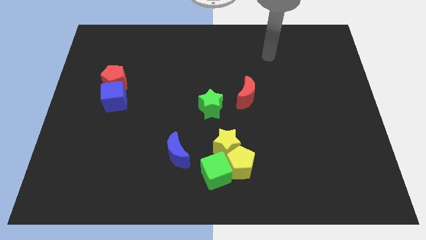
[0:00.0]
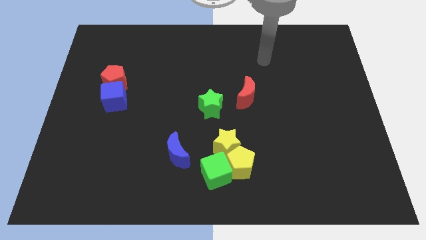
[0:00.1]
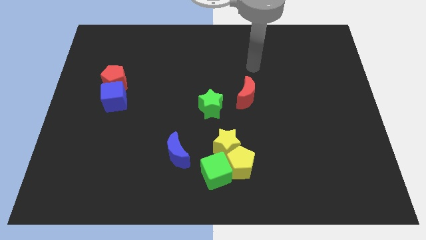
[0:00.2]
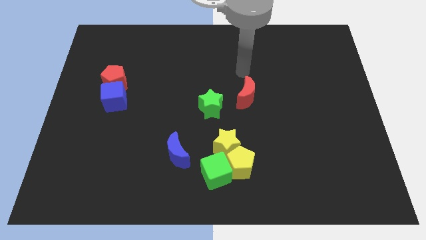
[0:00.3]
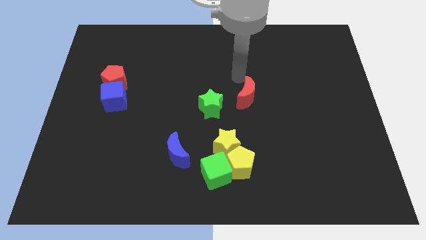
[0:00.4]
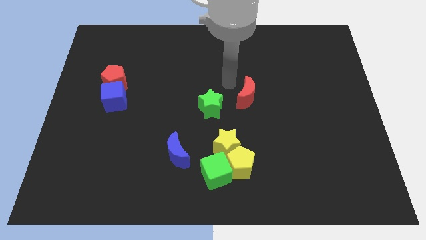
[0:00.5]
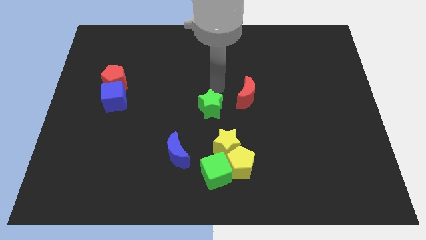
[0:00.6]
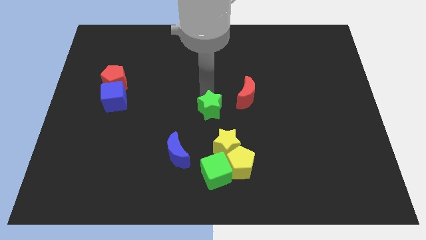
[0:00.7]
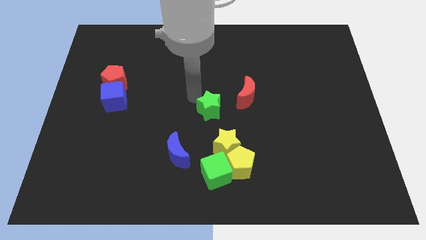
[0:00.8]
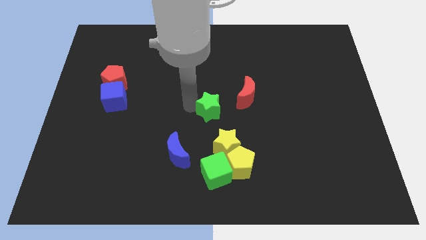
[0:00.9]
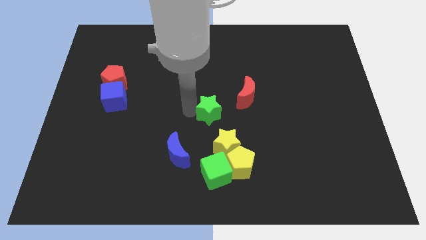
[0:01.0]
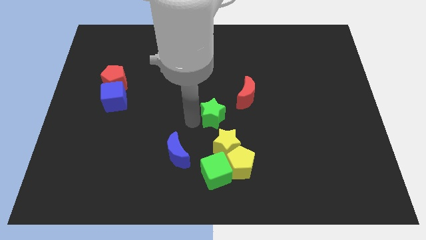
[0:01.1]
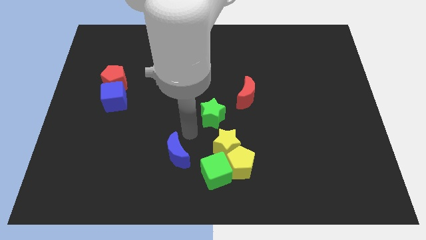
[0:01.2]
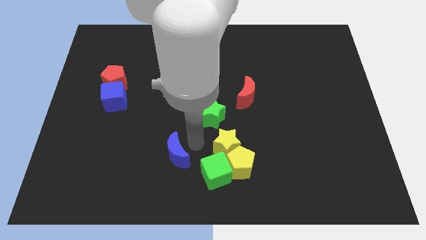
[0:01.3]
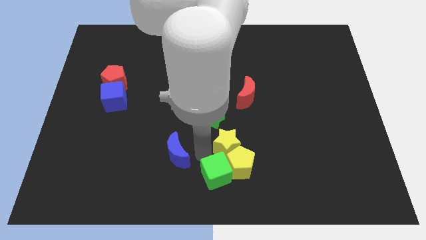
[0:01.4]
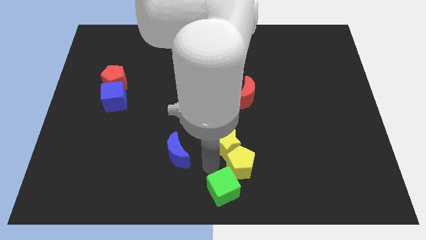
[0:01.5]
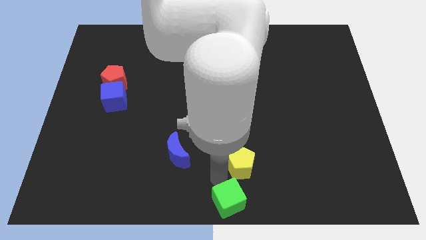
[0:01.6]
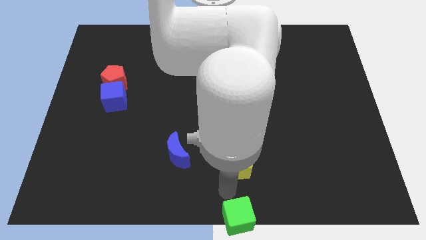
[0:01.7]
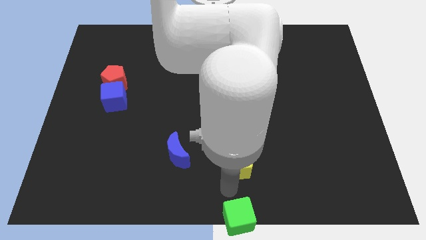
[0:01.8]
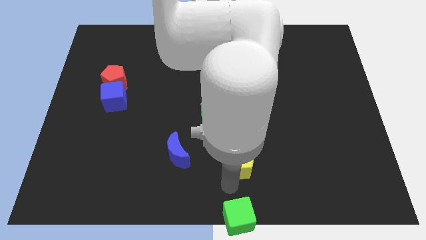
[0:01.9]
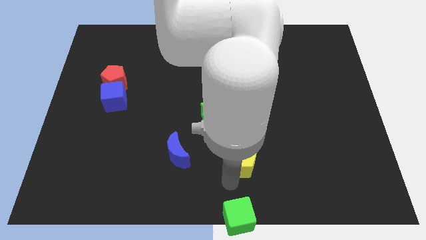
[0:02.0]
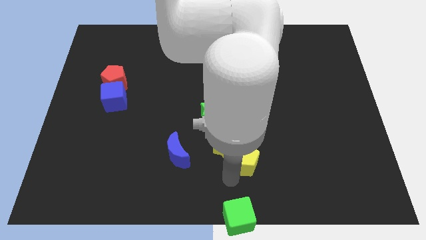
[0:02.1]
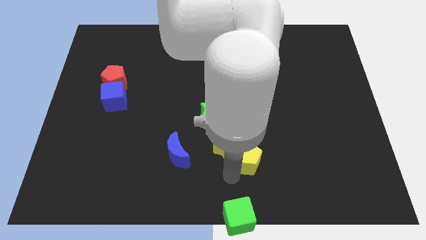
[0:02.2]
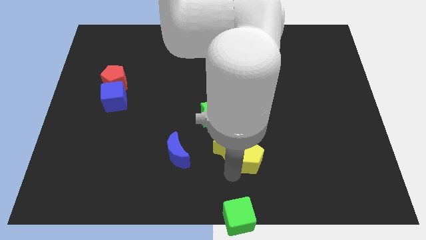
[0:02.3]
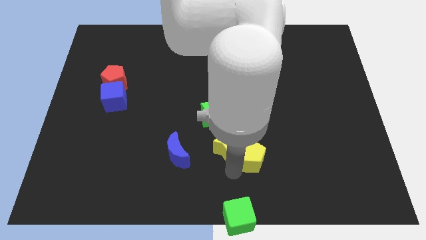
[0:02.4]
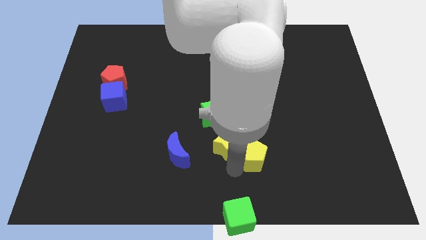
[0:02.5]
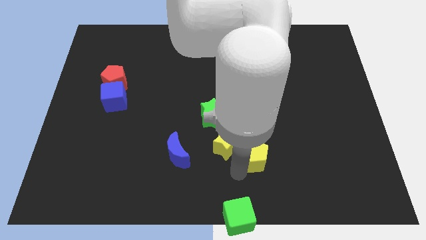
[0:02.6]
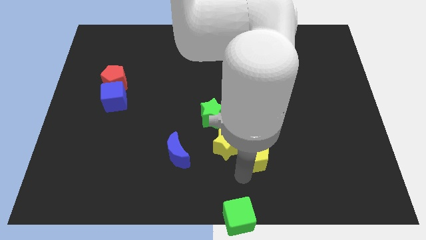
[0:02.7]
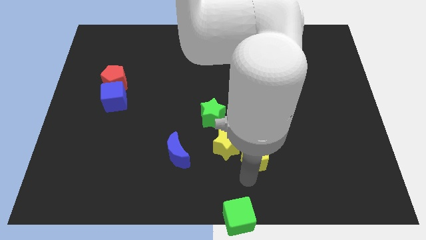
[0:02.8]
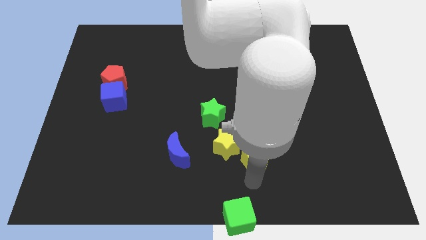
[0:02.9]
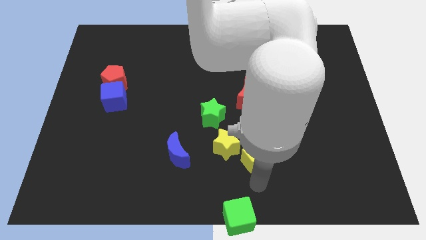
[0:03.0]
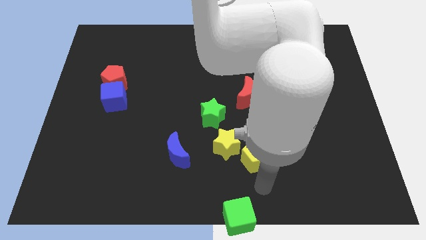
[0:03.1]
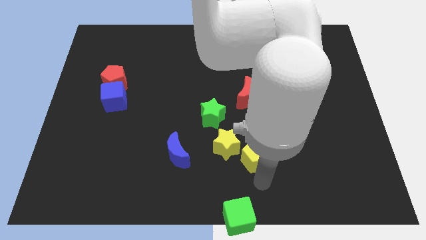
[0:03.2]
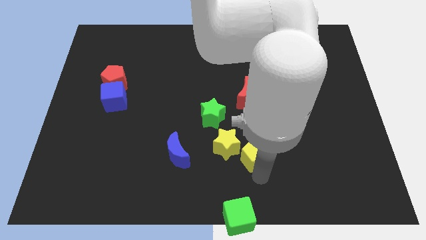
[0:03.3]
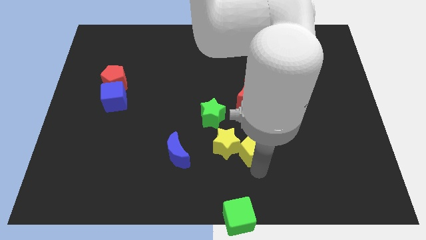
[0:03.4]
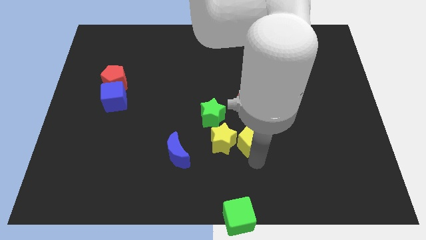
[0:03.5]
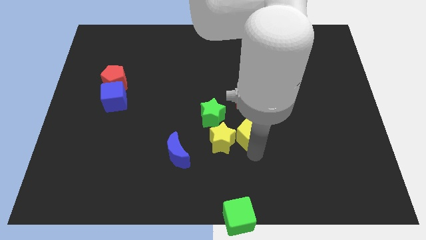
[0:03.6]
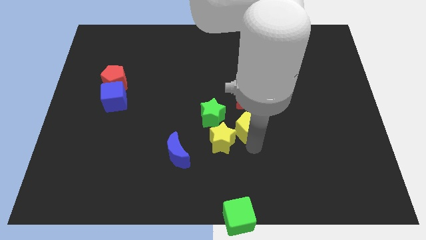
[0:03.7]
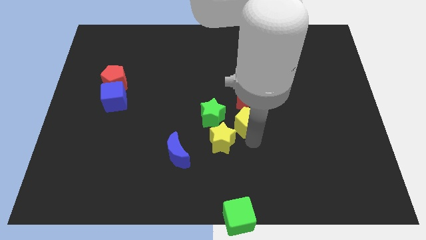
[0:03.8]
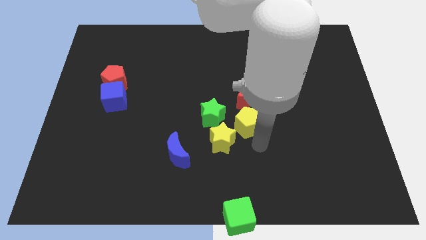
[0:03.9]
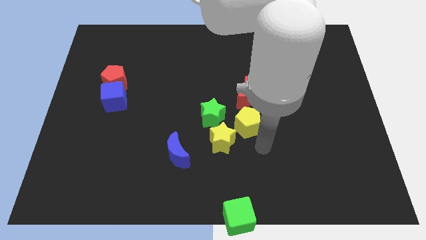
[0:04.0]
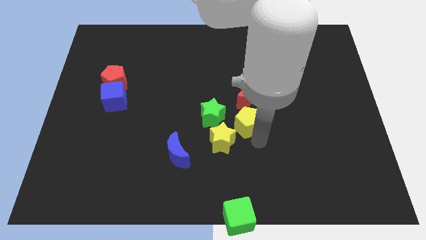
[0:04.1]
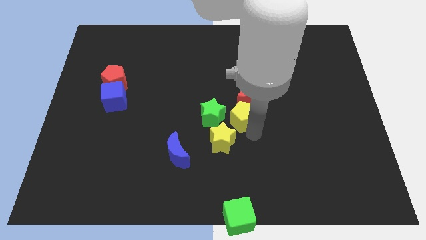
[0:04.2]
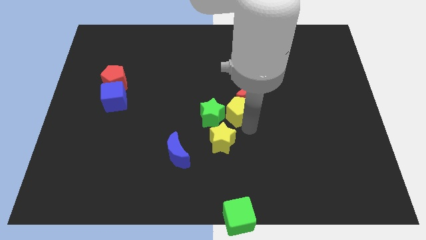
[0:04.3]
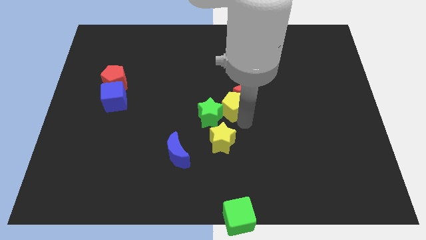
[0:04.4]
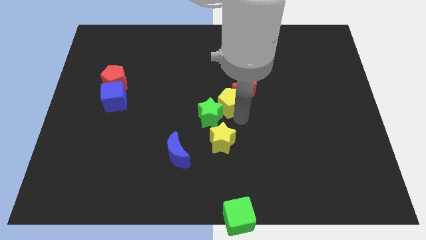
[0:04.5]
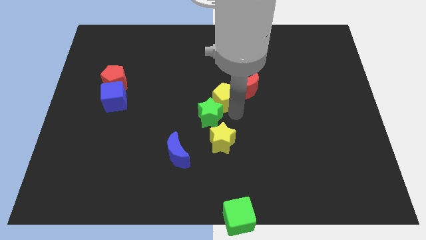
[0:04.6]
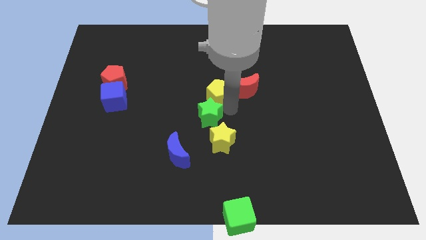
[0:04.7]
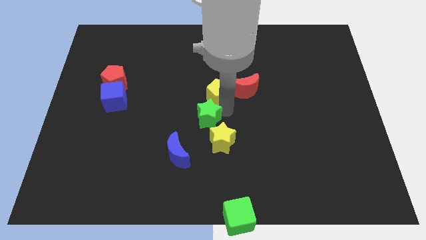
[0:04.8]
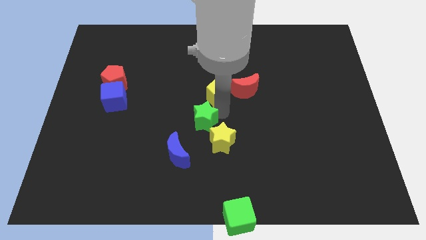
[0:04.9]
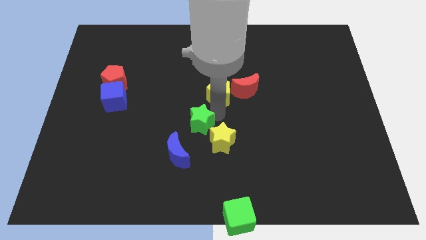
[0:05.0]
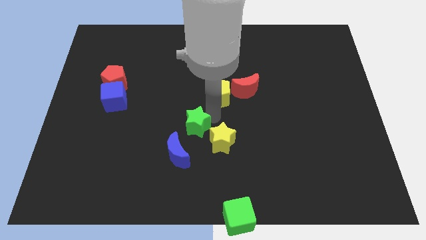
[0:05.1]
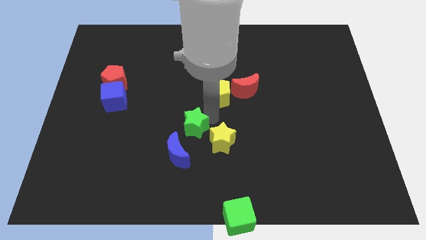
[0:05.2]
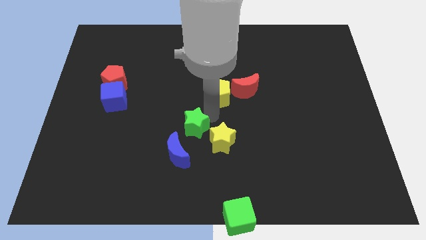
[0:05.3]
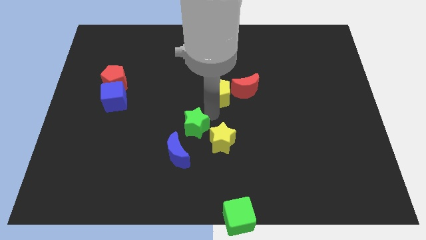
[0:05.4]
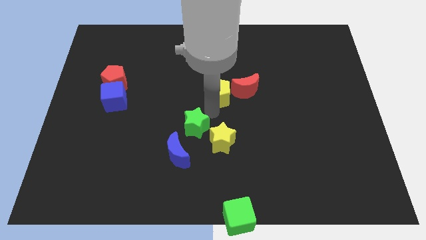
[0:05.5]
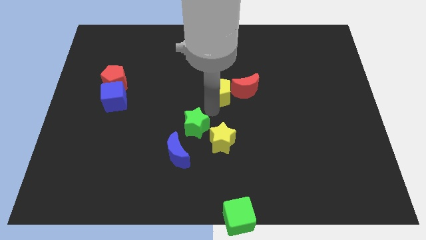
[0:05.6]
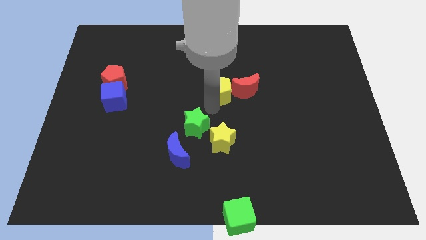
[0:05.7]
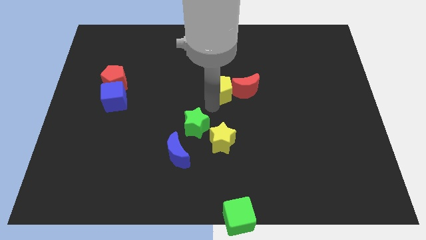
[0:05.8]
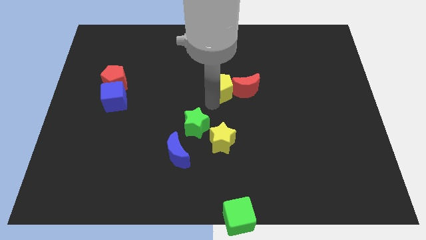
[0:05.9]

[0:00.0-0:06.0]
push the yellow pentagon upwards

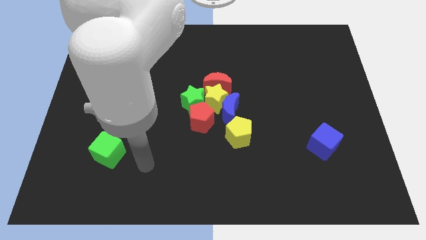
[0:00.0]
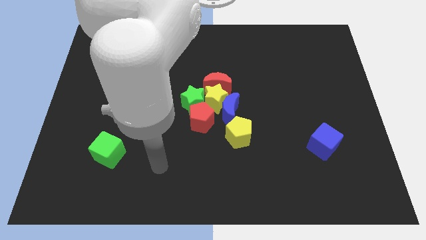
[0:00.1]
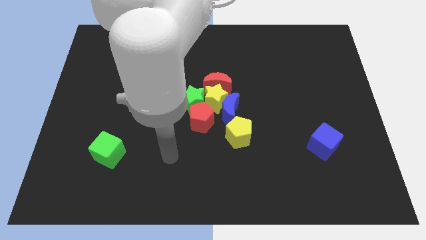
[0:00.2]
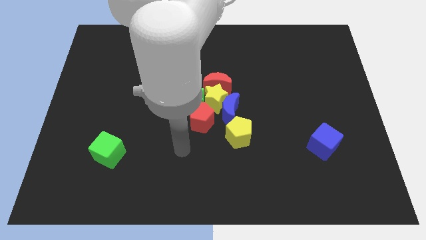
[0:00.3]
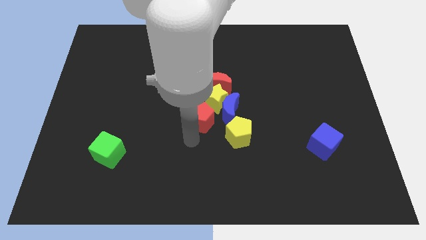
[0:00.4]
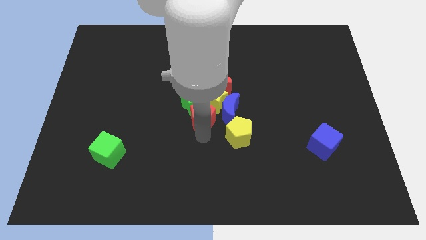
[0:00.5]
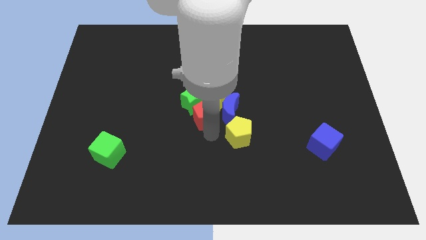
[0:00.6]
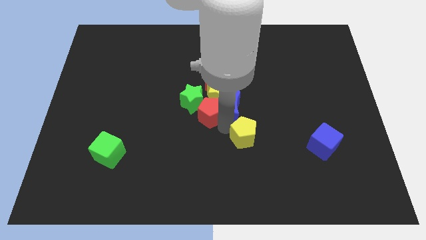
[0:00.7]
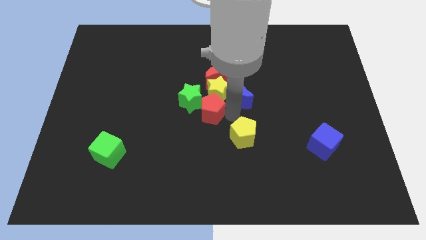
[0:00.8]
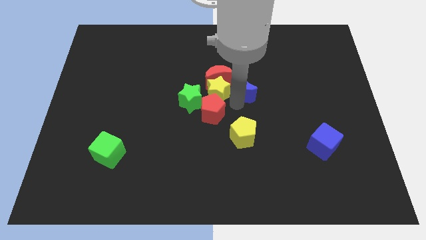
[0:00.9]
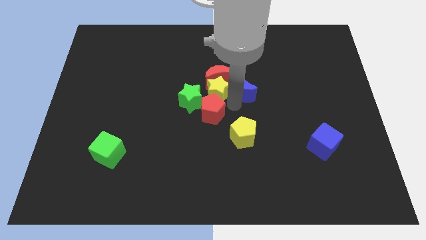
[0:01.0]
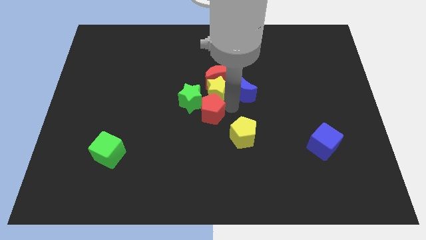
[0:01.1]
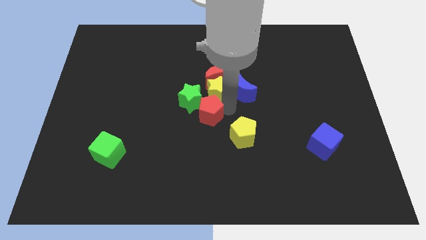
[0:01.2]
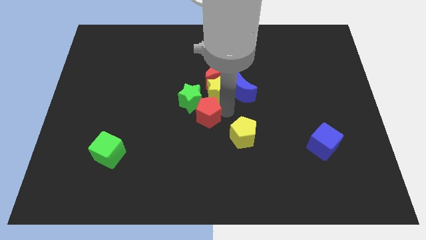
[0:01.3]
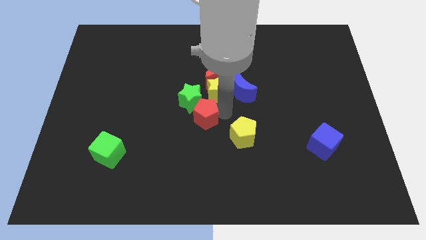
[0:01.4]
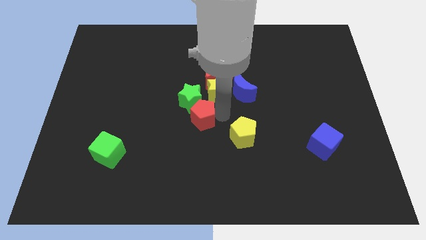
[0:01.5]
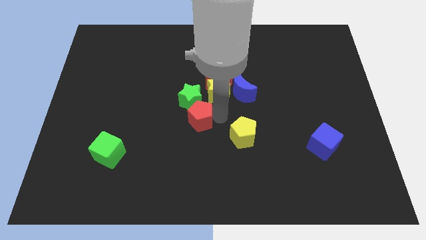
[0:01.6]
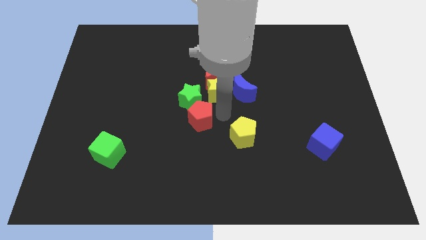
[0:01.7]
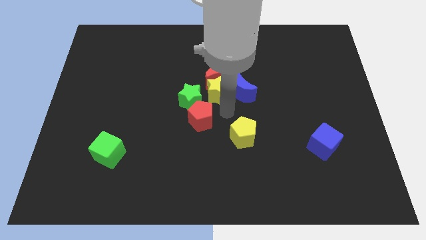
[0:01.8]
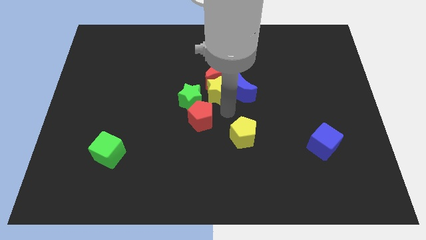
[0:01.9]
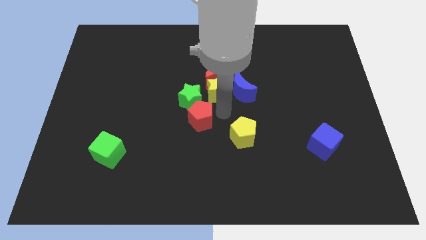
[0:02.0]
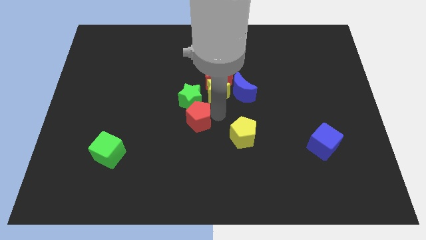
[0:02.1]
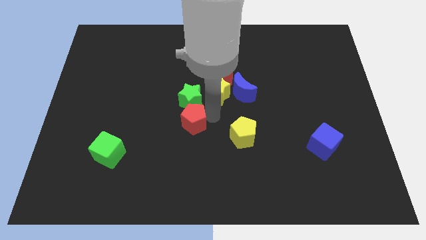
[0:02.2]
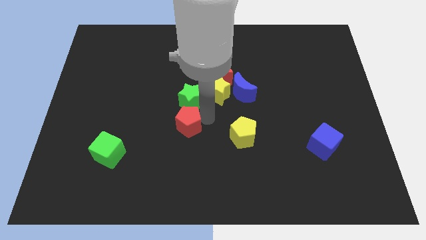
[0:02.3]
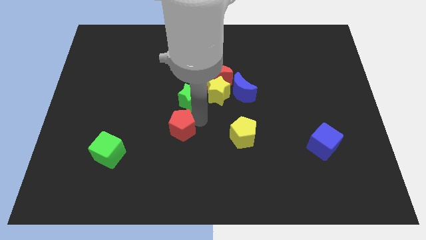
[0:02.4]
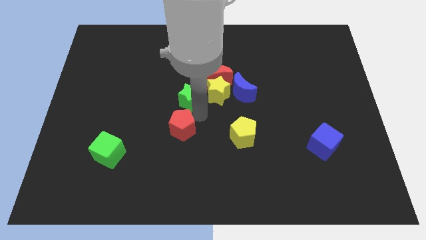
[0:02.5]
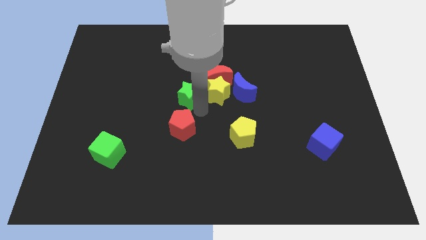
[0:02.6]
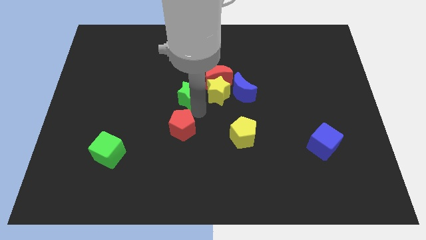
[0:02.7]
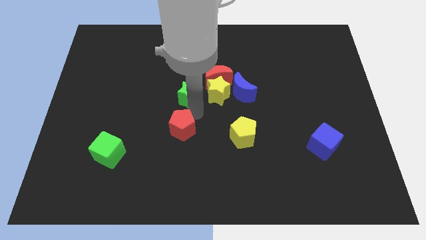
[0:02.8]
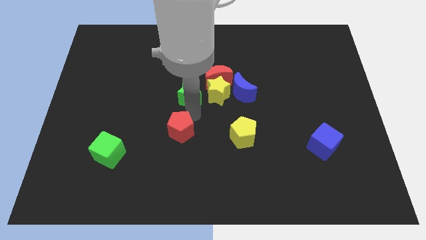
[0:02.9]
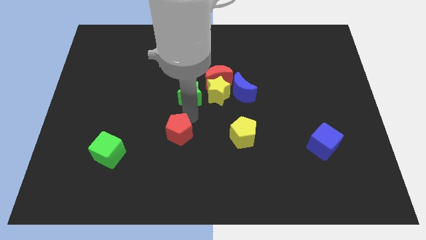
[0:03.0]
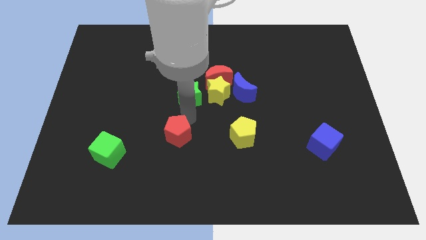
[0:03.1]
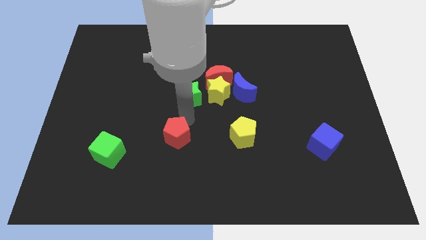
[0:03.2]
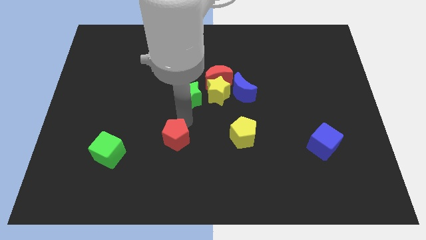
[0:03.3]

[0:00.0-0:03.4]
slightly push the red pentagon downwards and then left
